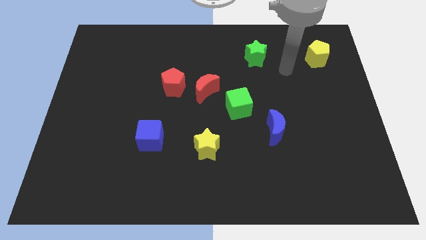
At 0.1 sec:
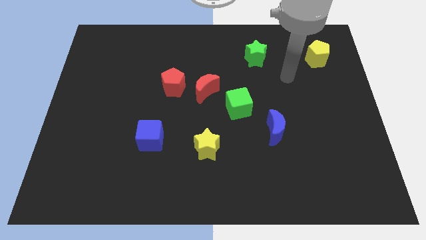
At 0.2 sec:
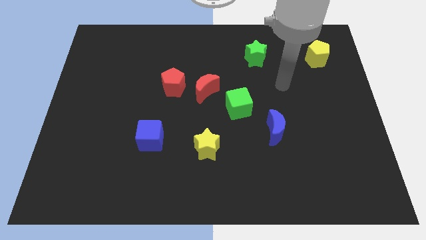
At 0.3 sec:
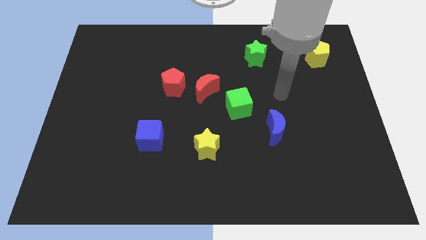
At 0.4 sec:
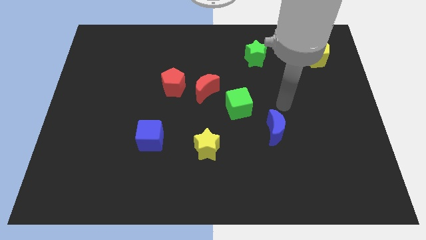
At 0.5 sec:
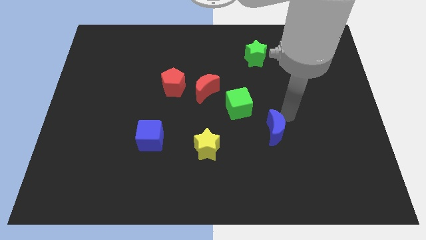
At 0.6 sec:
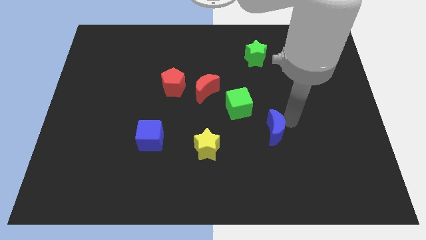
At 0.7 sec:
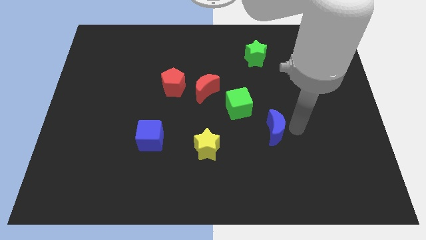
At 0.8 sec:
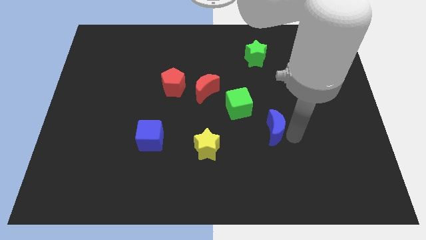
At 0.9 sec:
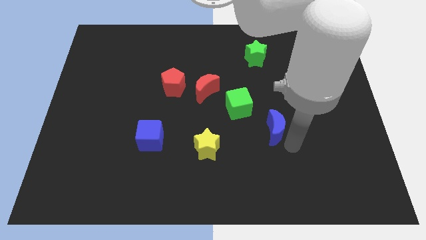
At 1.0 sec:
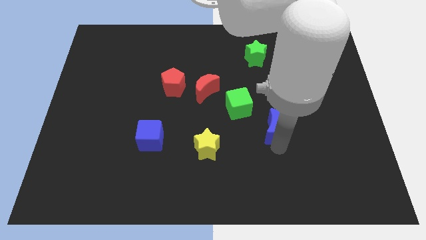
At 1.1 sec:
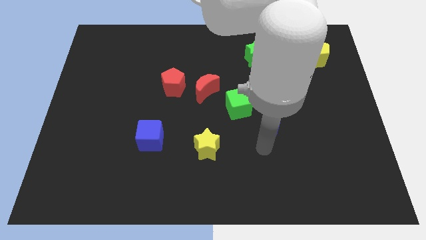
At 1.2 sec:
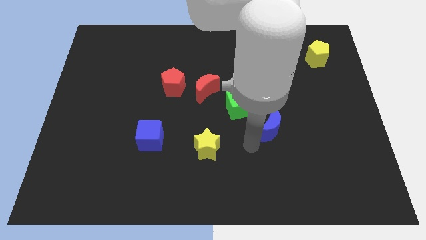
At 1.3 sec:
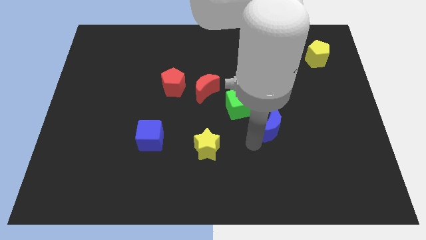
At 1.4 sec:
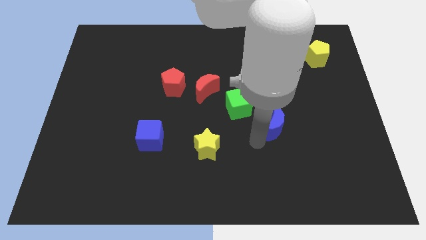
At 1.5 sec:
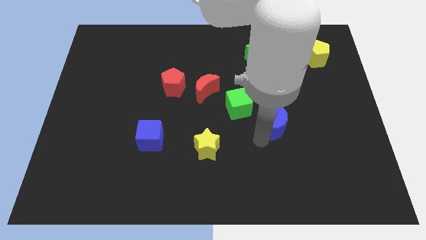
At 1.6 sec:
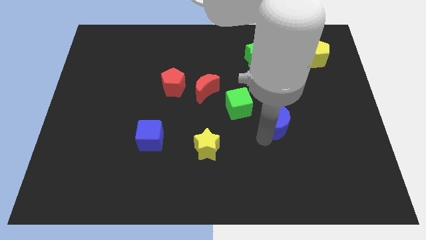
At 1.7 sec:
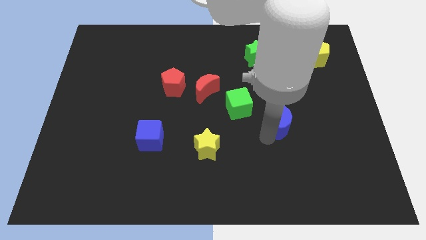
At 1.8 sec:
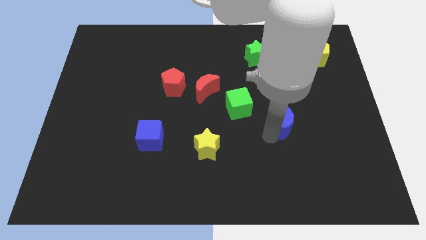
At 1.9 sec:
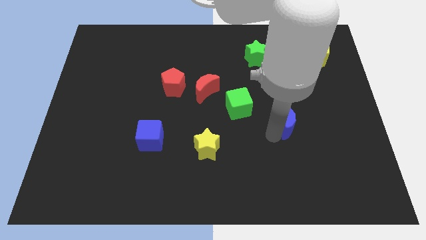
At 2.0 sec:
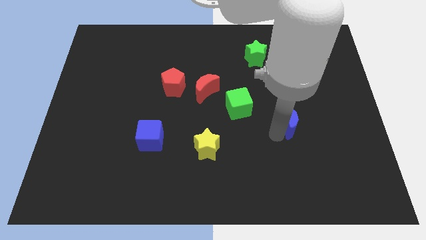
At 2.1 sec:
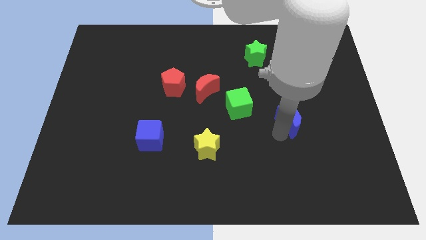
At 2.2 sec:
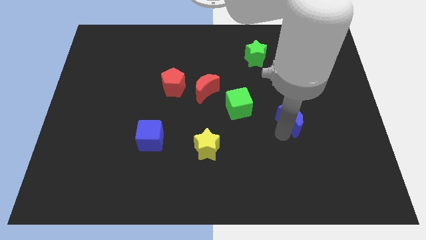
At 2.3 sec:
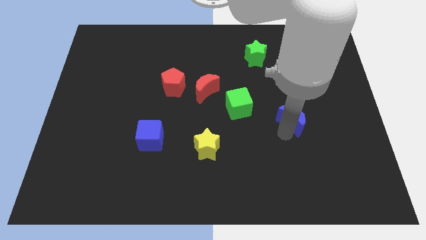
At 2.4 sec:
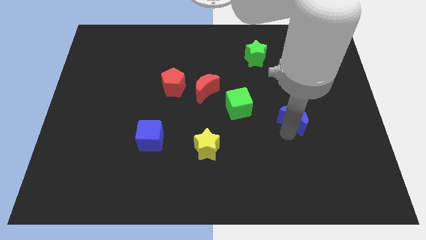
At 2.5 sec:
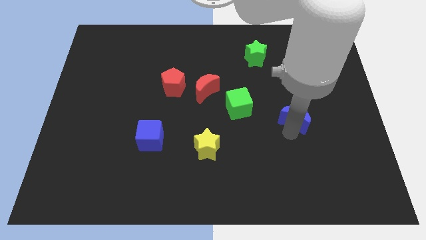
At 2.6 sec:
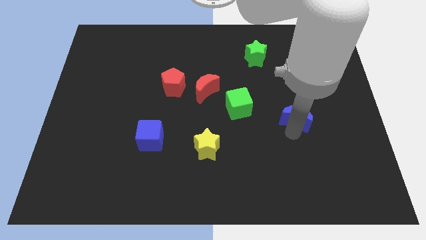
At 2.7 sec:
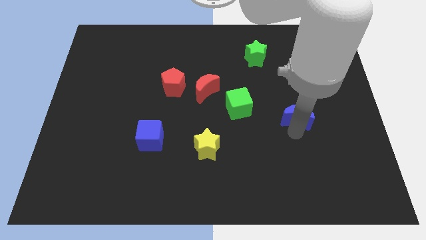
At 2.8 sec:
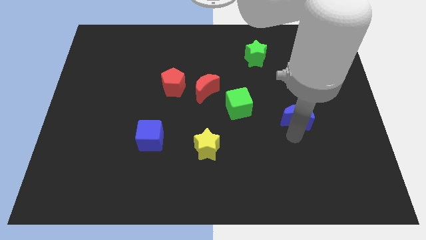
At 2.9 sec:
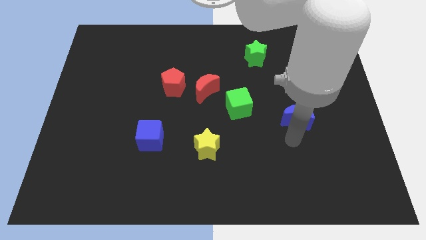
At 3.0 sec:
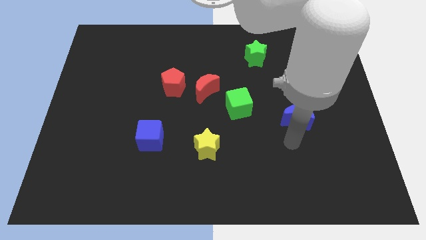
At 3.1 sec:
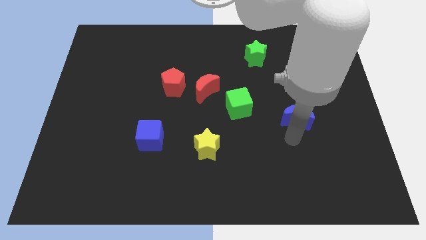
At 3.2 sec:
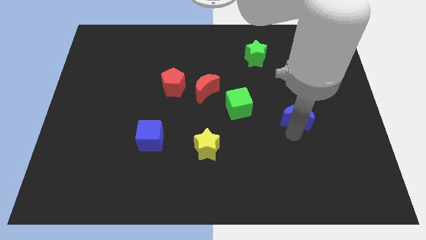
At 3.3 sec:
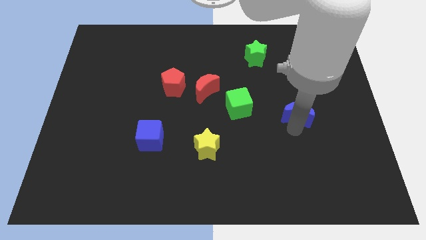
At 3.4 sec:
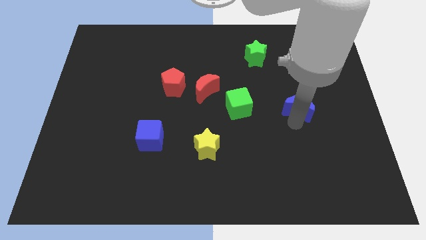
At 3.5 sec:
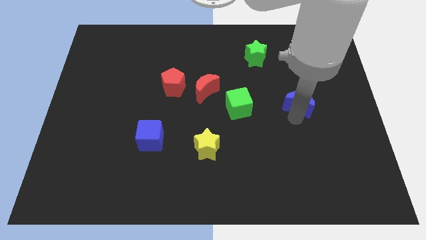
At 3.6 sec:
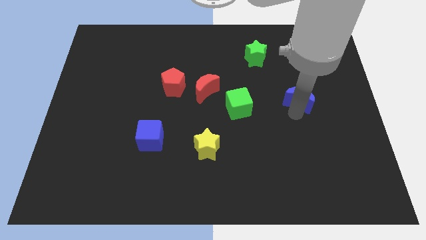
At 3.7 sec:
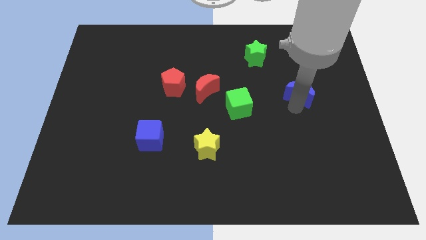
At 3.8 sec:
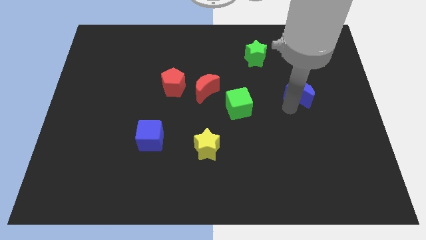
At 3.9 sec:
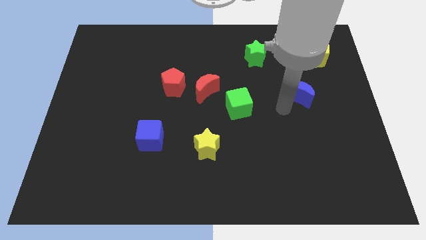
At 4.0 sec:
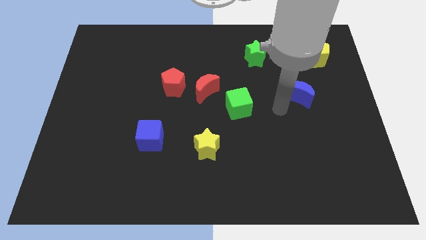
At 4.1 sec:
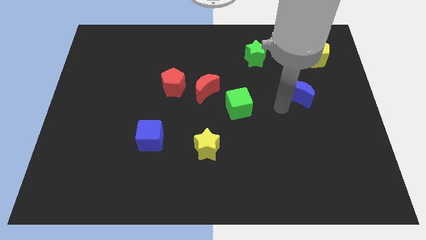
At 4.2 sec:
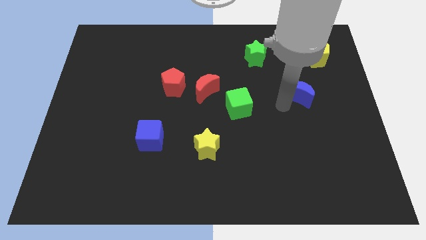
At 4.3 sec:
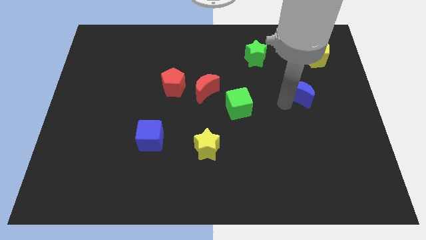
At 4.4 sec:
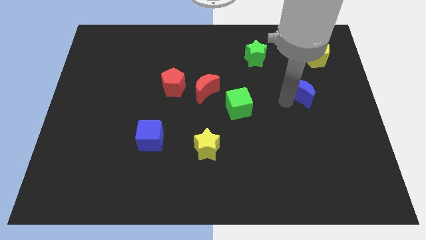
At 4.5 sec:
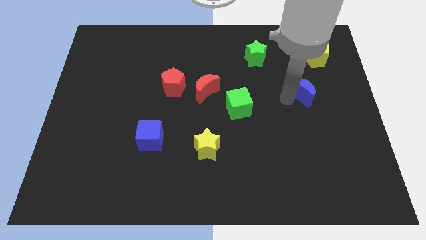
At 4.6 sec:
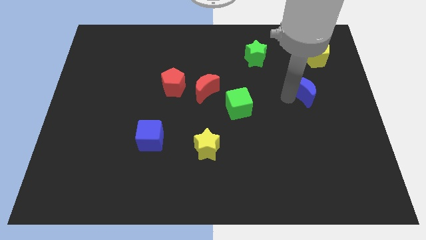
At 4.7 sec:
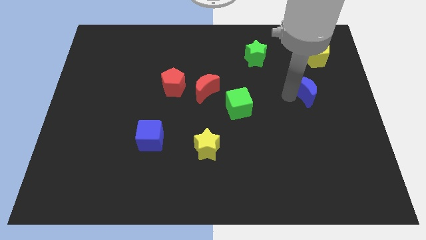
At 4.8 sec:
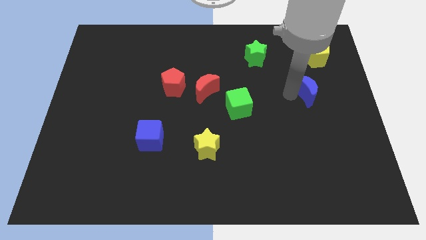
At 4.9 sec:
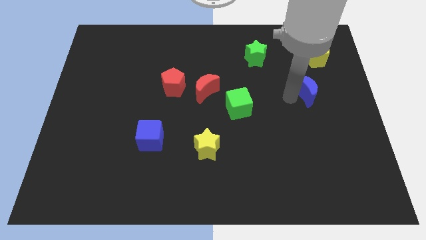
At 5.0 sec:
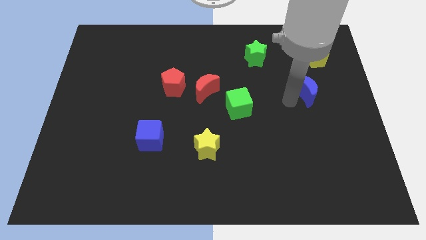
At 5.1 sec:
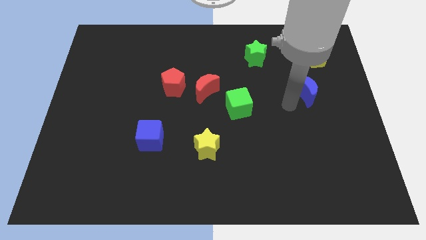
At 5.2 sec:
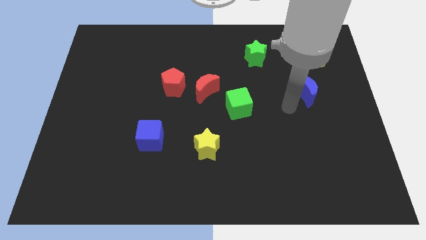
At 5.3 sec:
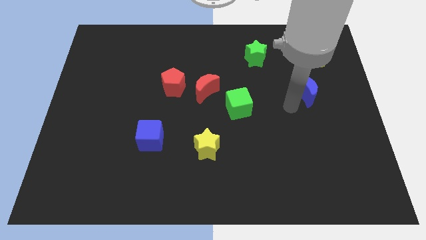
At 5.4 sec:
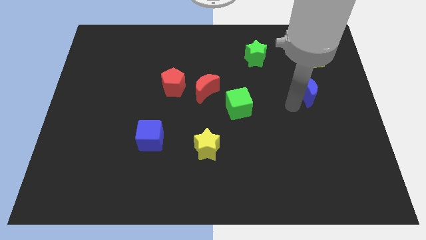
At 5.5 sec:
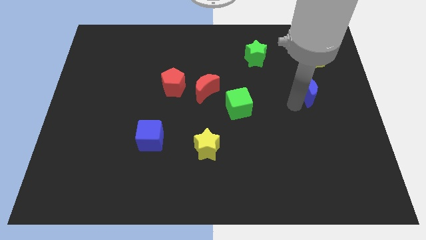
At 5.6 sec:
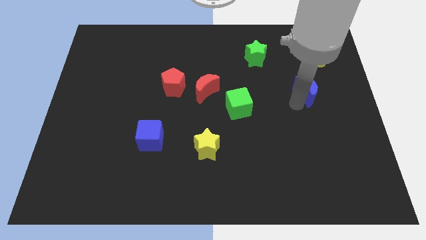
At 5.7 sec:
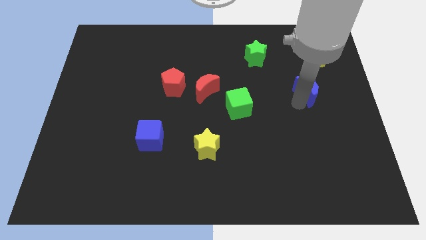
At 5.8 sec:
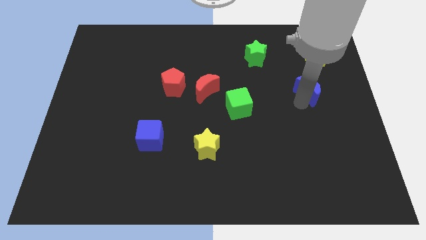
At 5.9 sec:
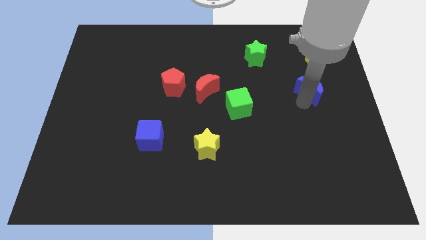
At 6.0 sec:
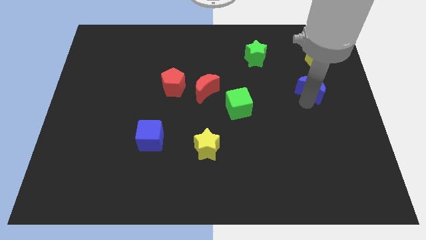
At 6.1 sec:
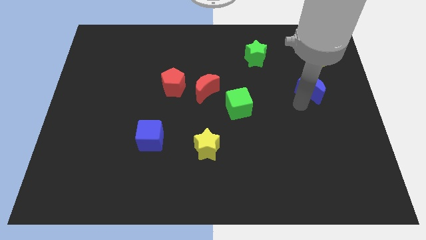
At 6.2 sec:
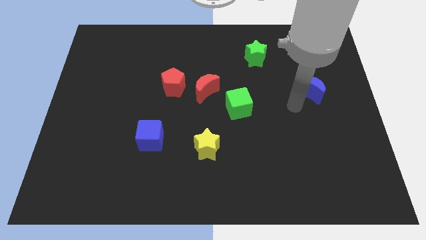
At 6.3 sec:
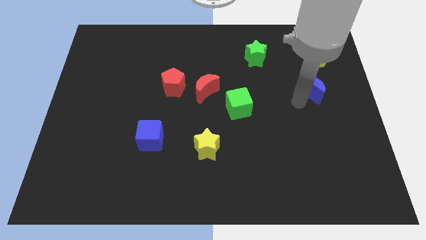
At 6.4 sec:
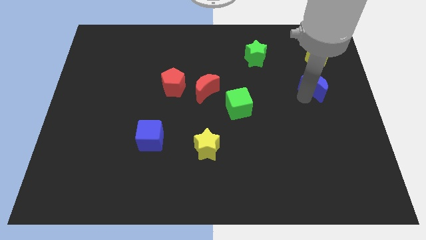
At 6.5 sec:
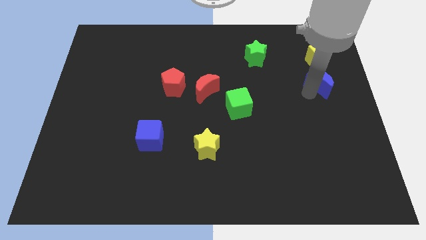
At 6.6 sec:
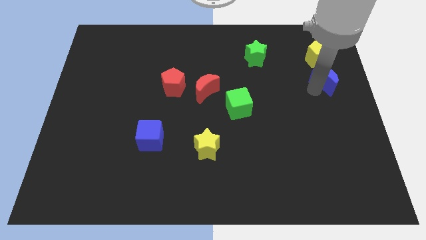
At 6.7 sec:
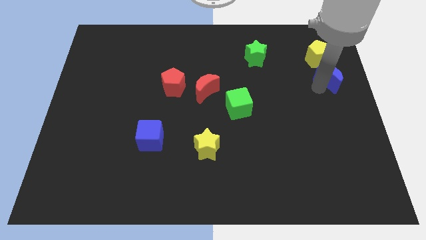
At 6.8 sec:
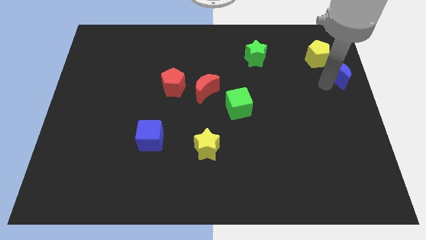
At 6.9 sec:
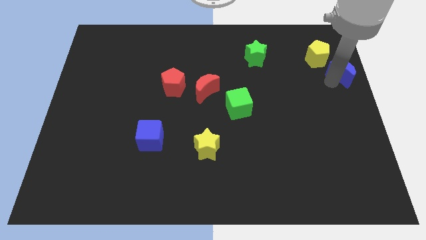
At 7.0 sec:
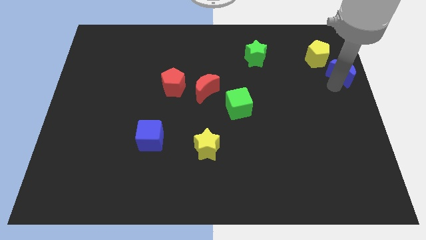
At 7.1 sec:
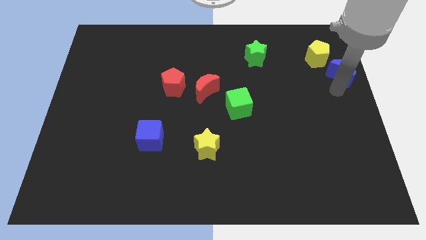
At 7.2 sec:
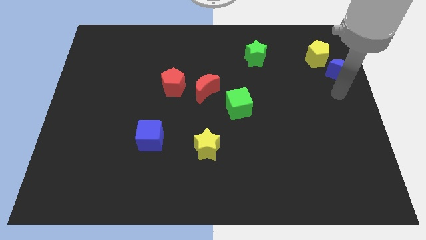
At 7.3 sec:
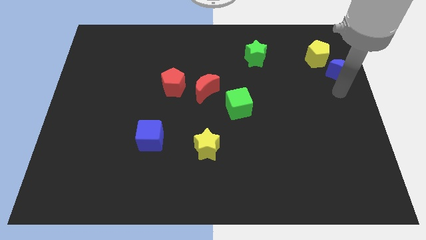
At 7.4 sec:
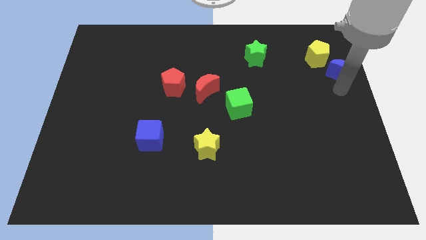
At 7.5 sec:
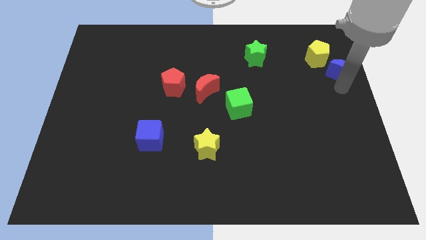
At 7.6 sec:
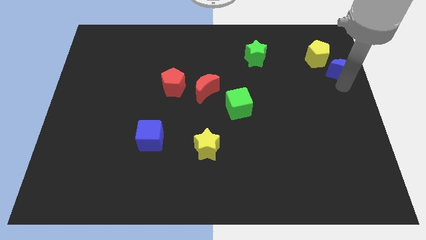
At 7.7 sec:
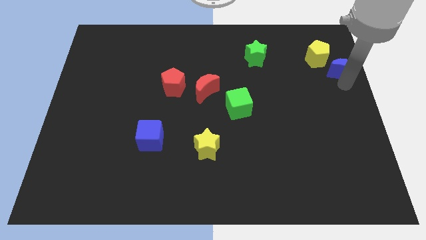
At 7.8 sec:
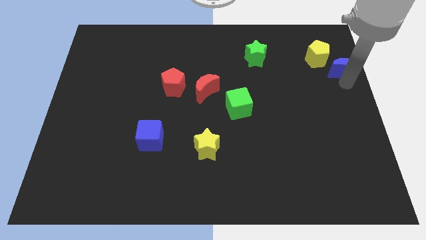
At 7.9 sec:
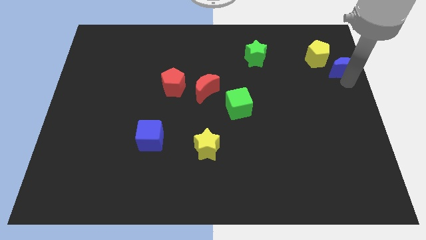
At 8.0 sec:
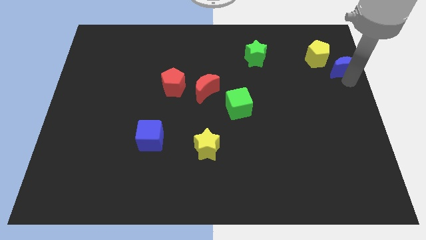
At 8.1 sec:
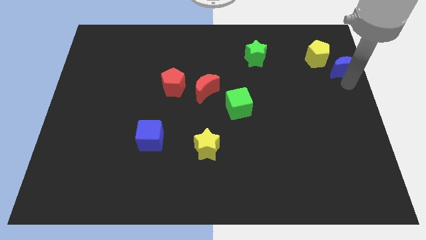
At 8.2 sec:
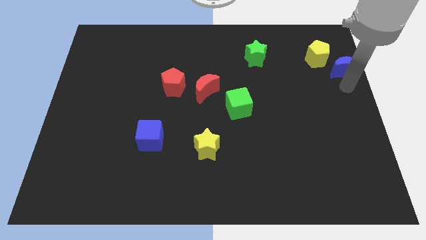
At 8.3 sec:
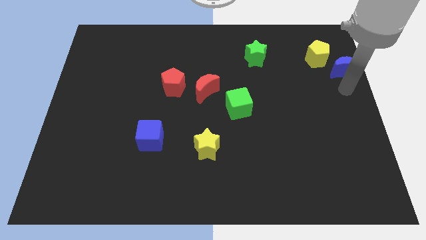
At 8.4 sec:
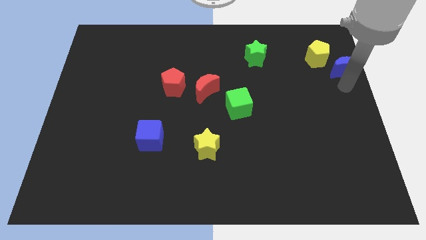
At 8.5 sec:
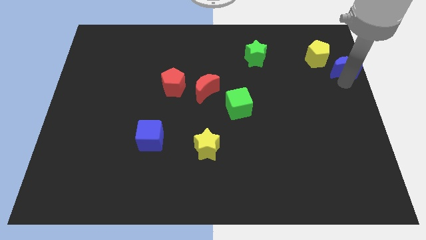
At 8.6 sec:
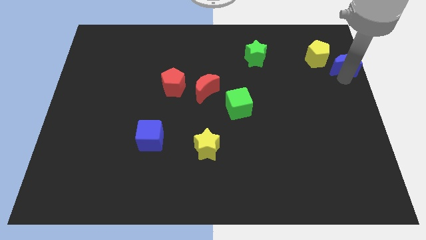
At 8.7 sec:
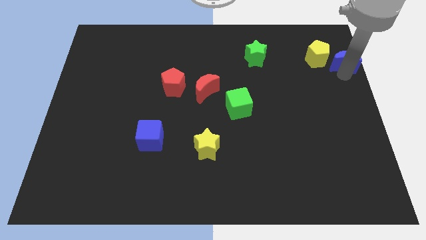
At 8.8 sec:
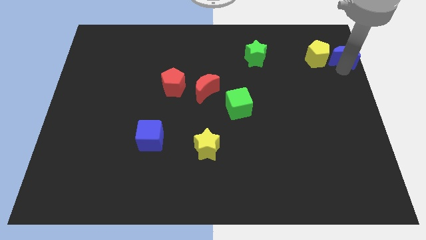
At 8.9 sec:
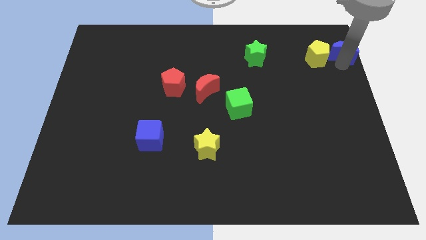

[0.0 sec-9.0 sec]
push the blue moon to the top right corner
